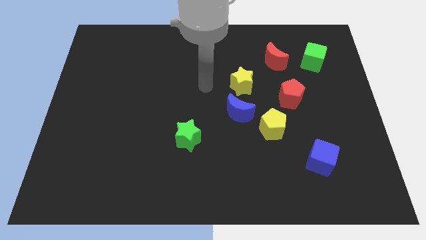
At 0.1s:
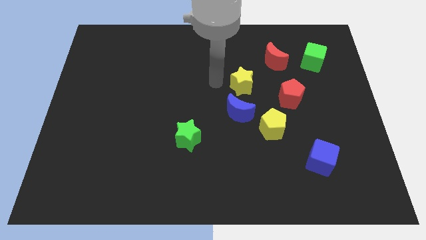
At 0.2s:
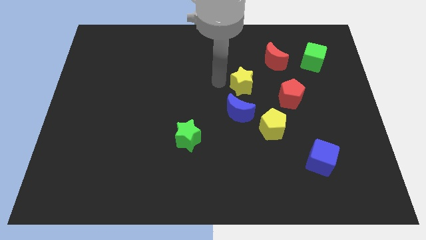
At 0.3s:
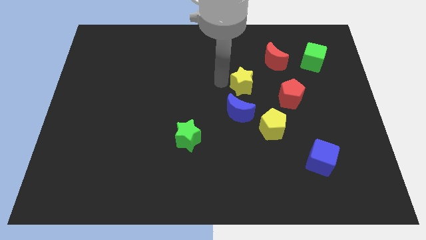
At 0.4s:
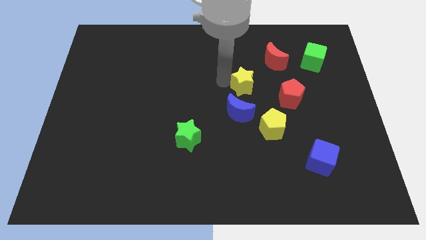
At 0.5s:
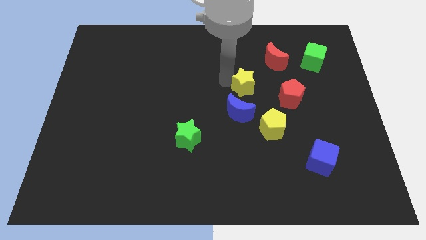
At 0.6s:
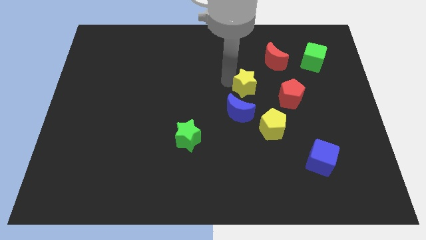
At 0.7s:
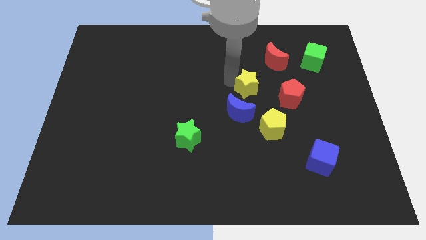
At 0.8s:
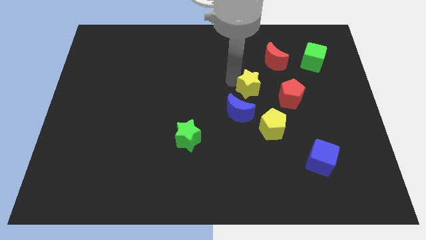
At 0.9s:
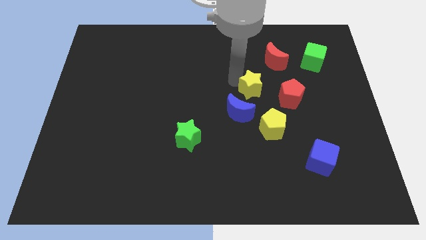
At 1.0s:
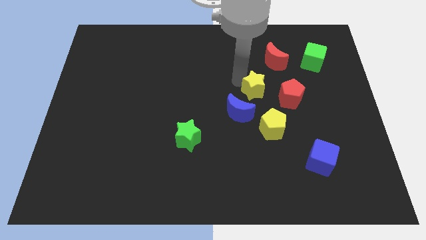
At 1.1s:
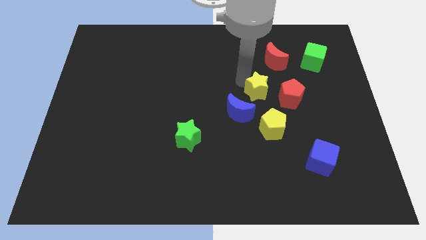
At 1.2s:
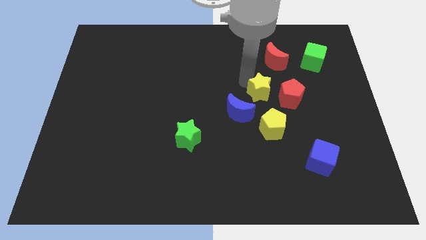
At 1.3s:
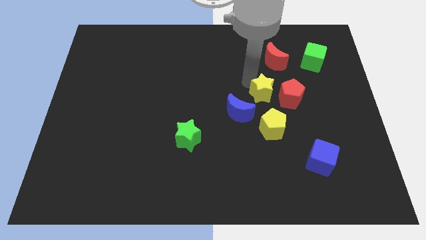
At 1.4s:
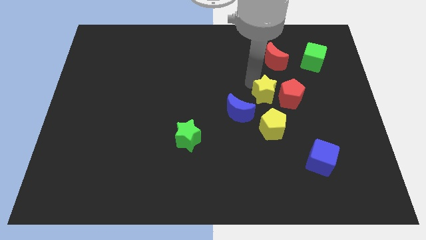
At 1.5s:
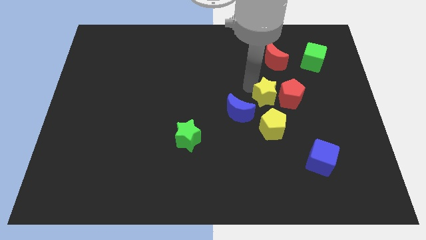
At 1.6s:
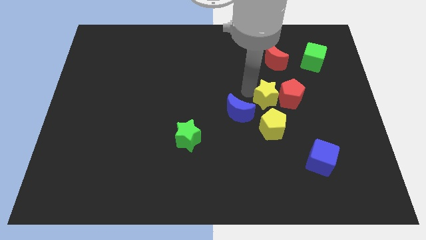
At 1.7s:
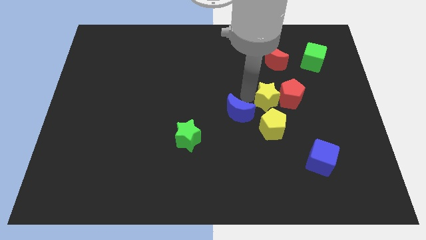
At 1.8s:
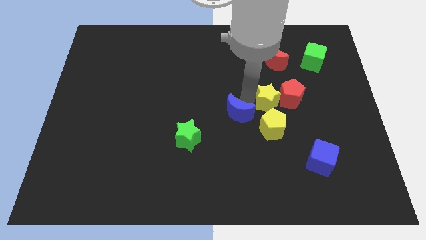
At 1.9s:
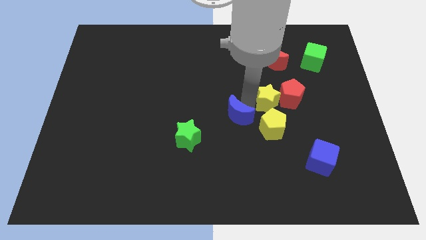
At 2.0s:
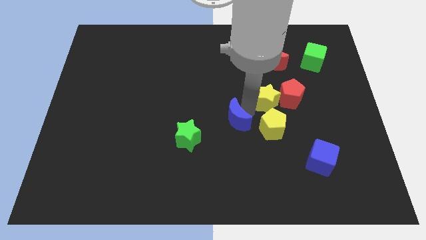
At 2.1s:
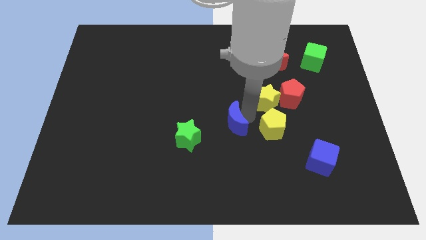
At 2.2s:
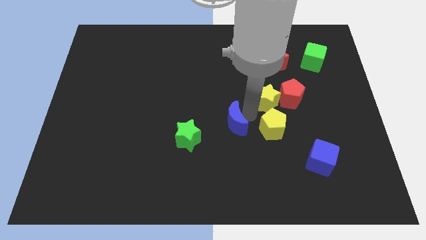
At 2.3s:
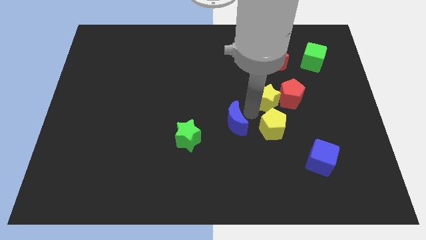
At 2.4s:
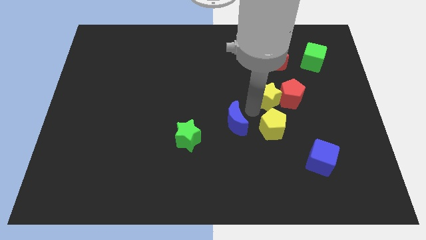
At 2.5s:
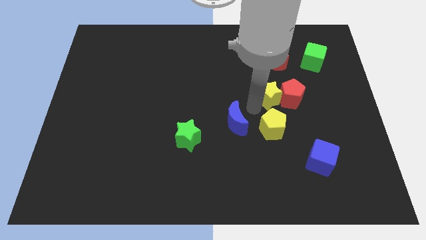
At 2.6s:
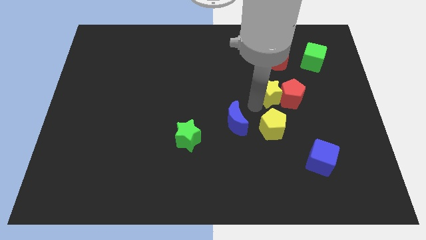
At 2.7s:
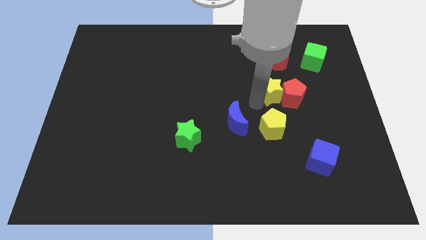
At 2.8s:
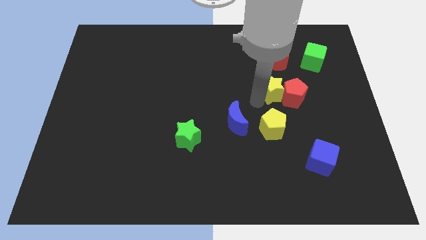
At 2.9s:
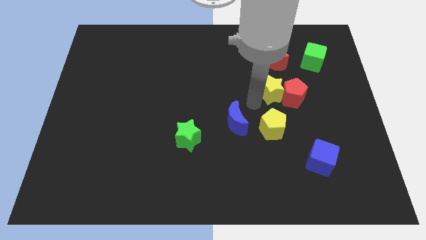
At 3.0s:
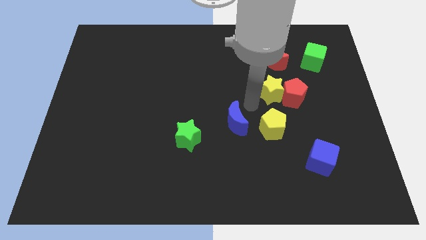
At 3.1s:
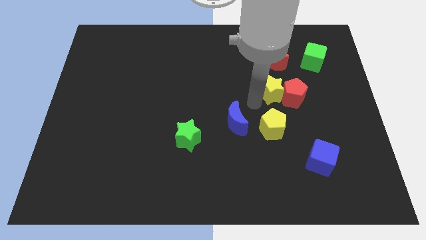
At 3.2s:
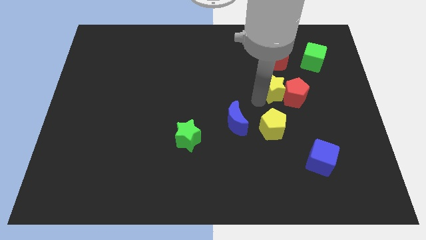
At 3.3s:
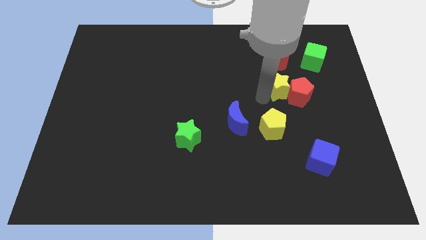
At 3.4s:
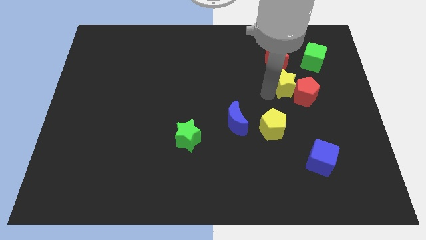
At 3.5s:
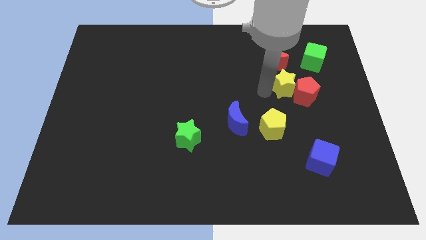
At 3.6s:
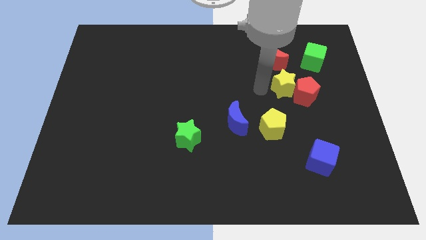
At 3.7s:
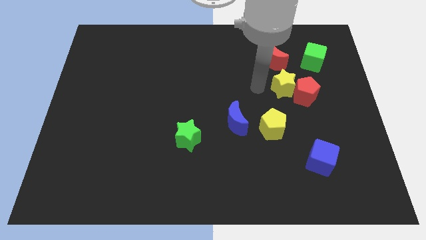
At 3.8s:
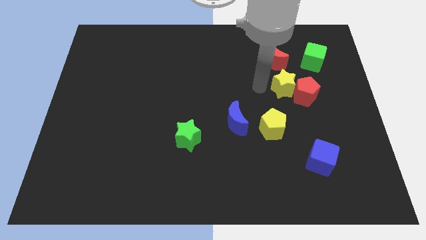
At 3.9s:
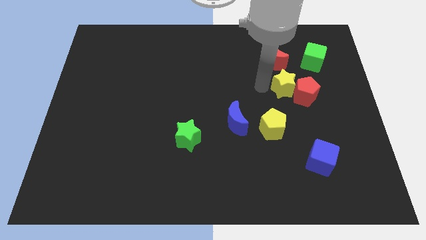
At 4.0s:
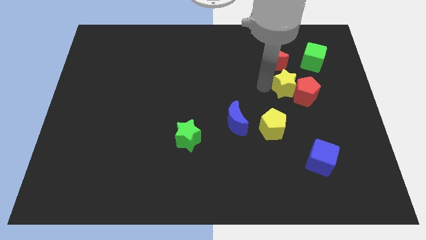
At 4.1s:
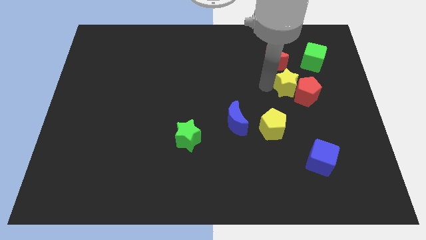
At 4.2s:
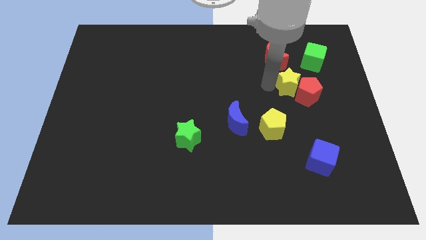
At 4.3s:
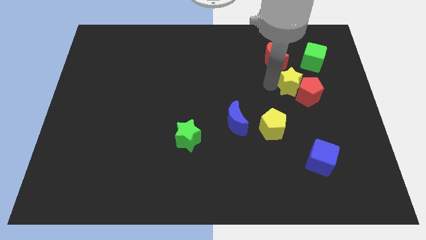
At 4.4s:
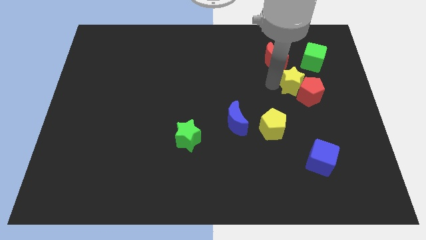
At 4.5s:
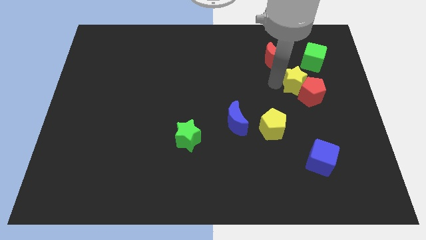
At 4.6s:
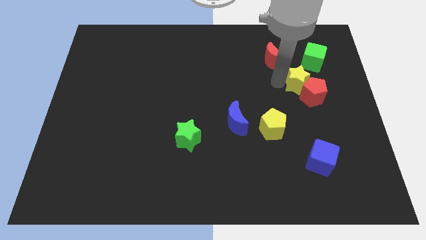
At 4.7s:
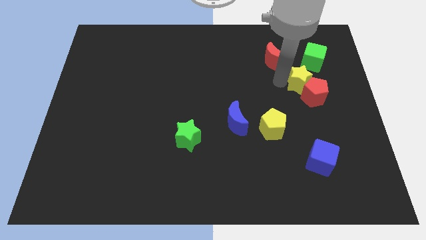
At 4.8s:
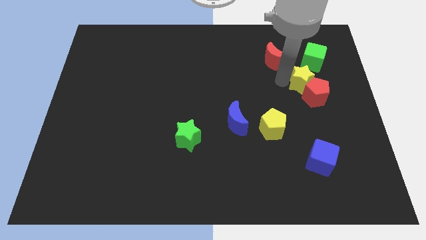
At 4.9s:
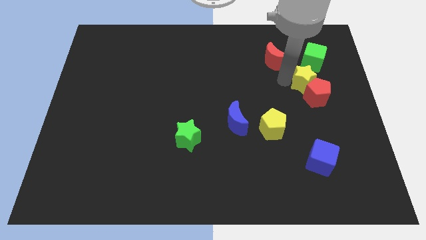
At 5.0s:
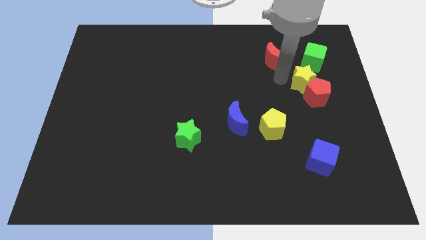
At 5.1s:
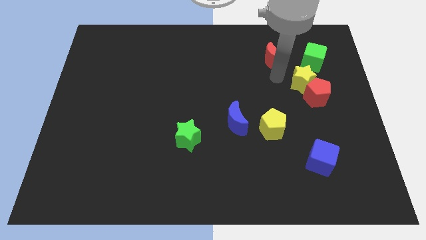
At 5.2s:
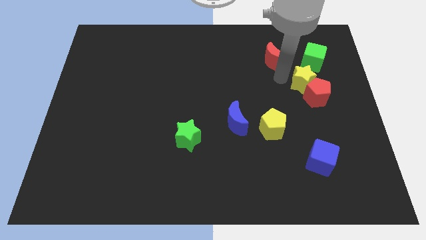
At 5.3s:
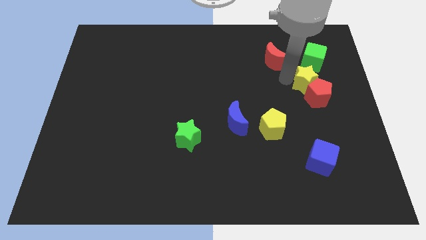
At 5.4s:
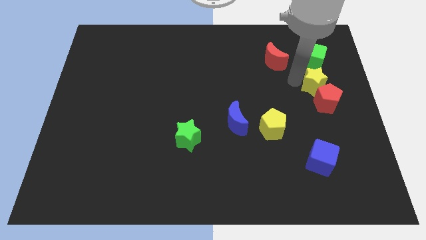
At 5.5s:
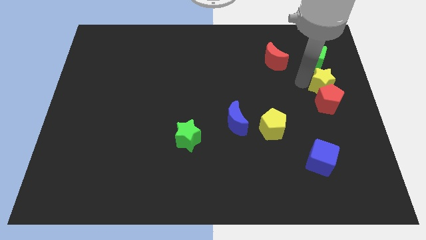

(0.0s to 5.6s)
put the yellow star to the center right
